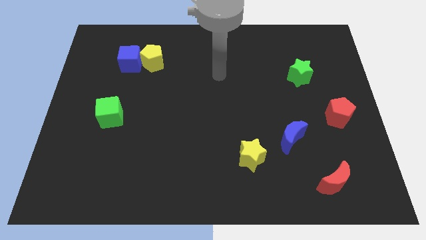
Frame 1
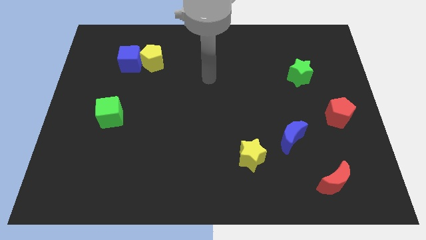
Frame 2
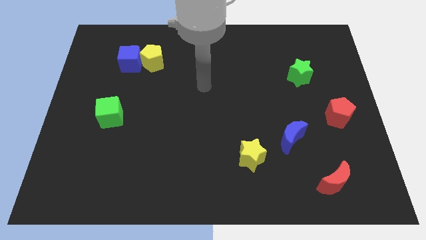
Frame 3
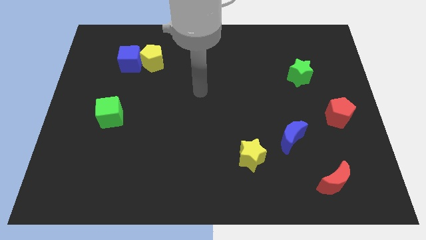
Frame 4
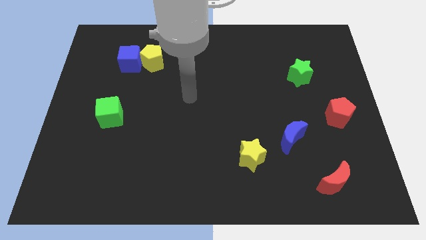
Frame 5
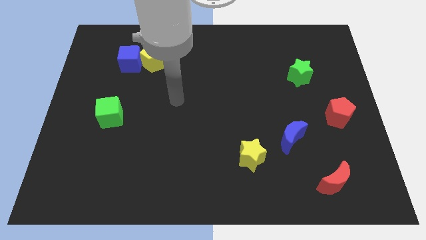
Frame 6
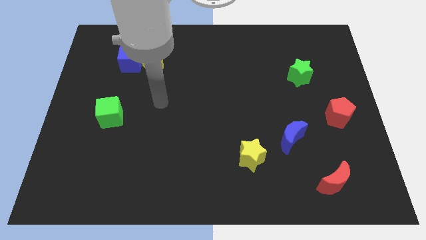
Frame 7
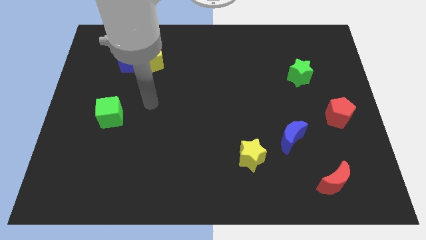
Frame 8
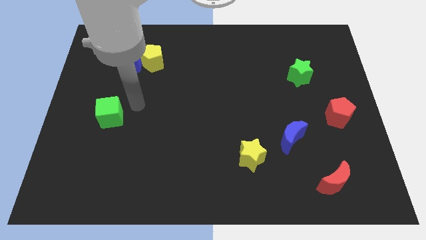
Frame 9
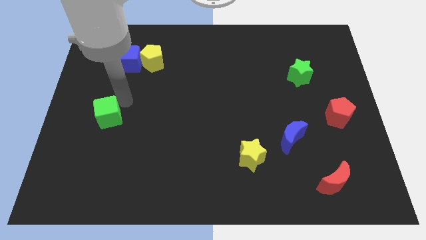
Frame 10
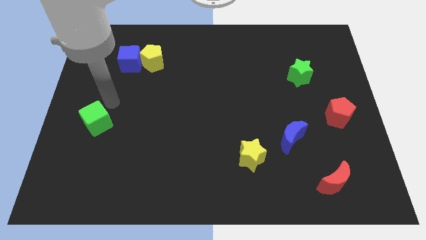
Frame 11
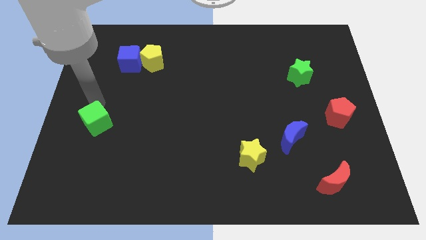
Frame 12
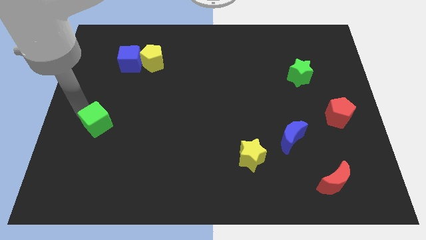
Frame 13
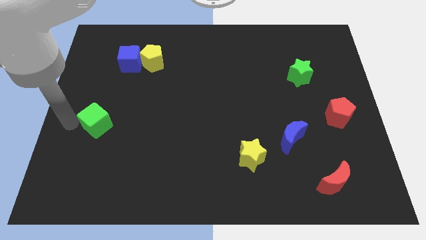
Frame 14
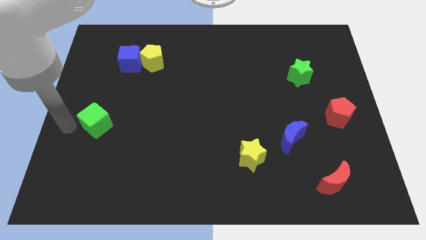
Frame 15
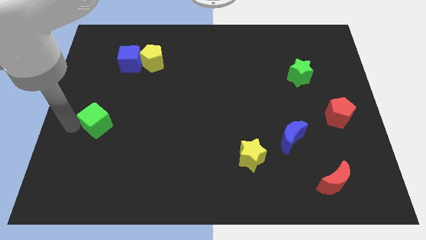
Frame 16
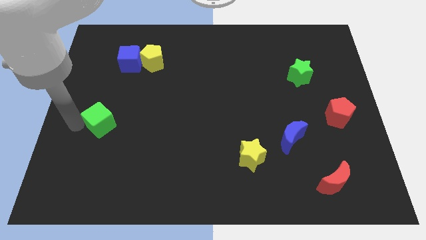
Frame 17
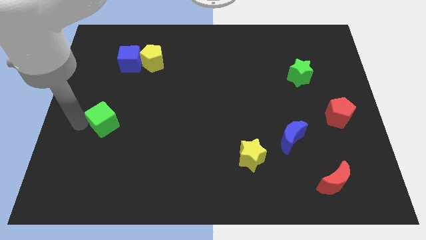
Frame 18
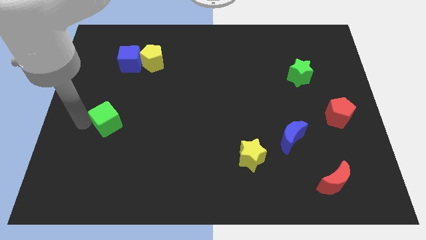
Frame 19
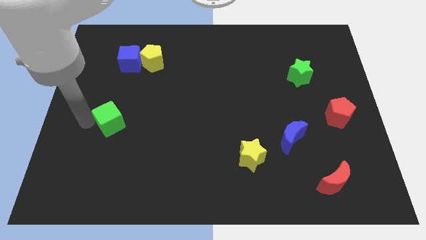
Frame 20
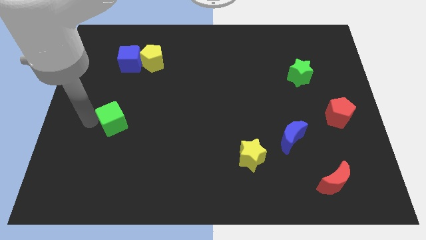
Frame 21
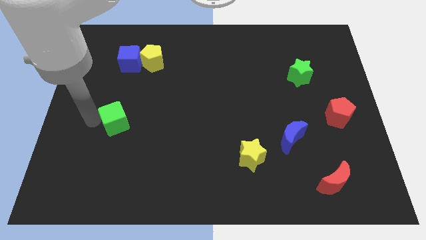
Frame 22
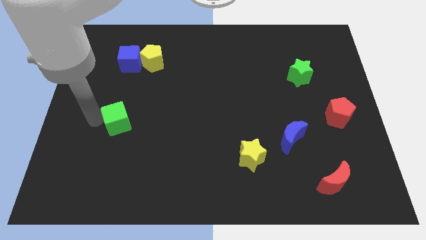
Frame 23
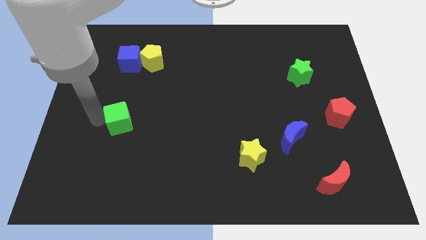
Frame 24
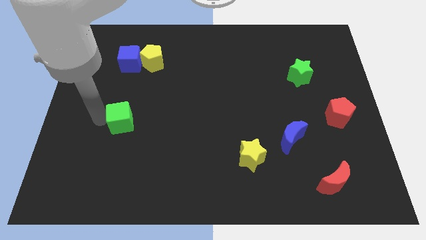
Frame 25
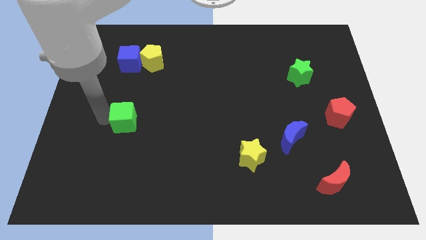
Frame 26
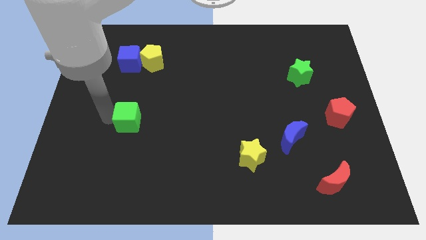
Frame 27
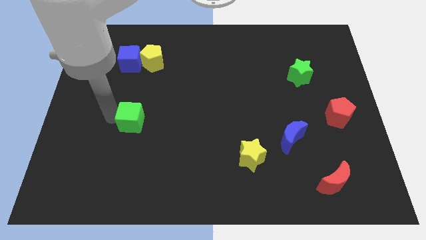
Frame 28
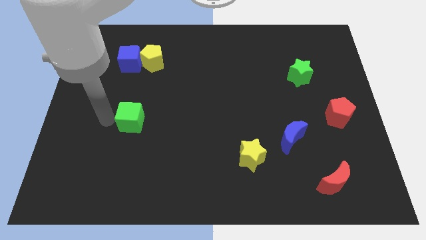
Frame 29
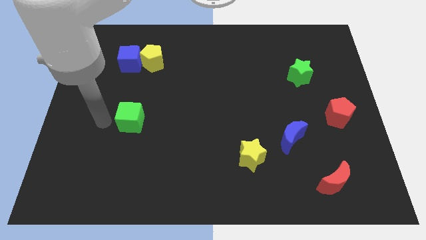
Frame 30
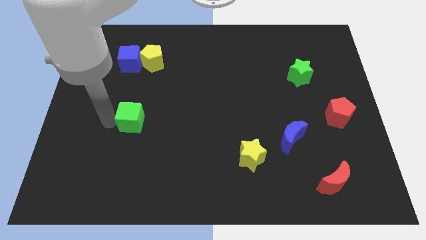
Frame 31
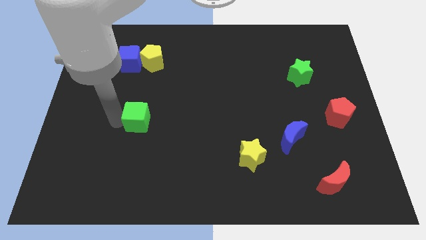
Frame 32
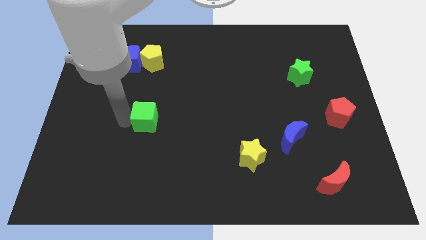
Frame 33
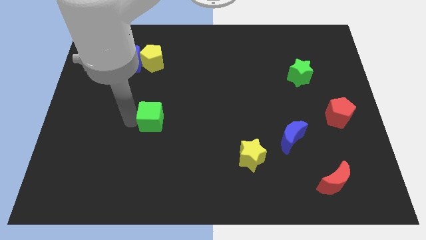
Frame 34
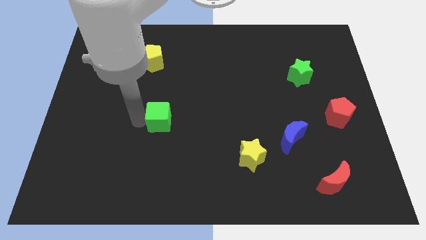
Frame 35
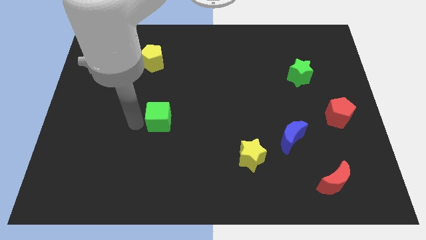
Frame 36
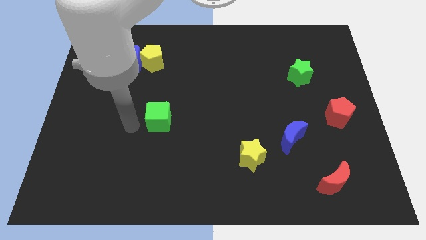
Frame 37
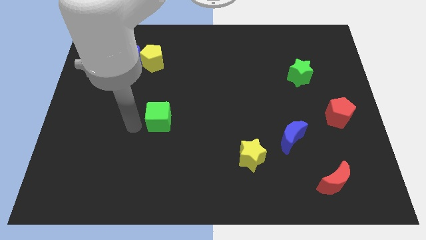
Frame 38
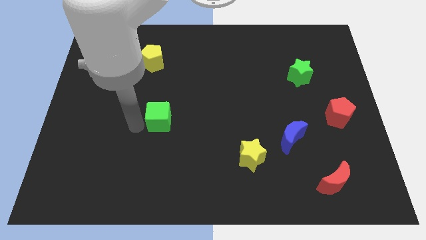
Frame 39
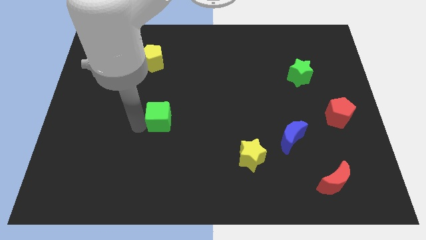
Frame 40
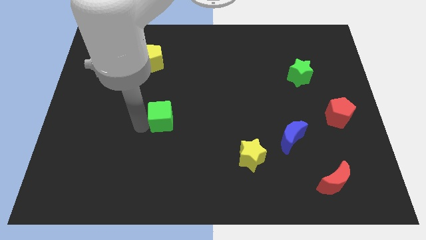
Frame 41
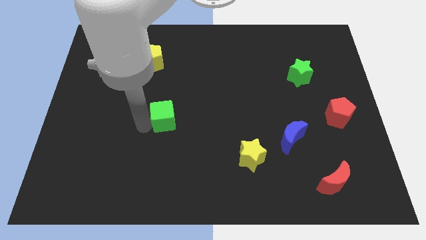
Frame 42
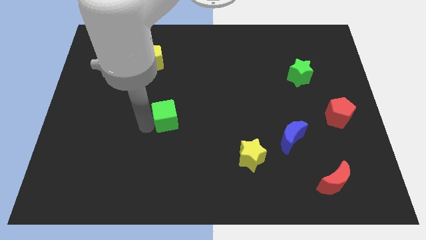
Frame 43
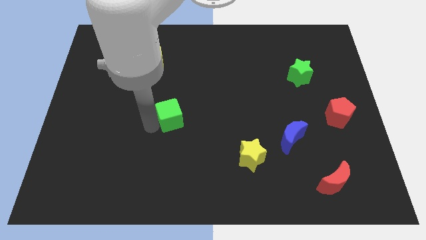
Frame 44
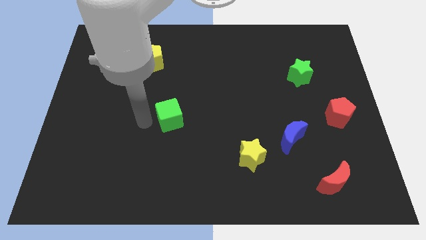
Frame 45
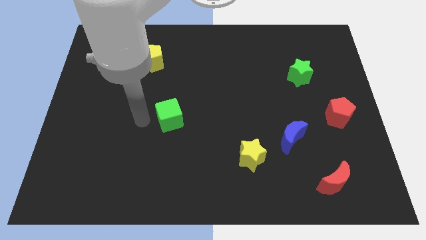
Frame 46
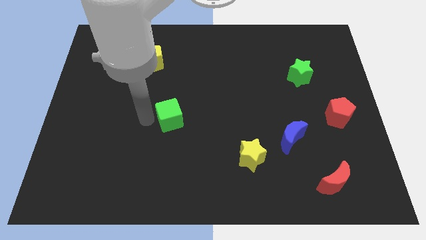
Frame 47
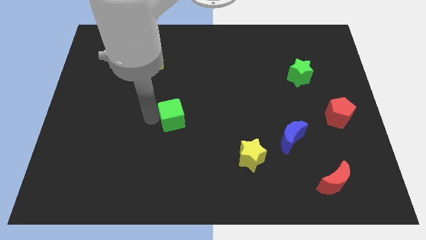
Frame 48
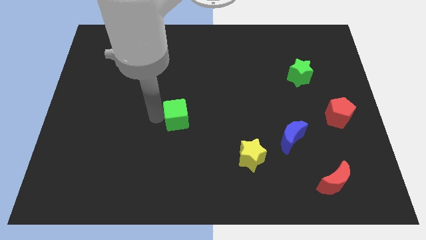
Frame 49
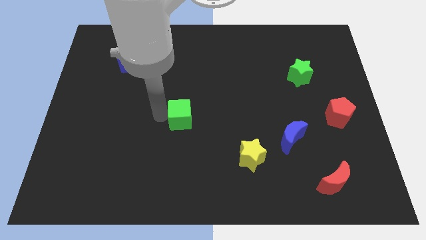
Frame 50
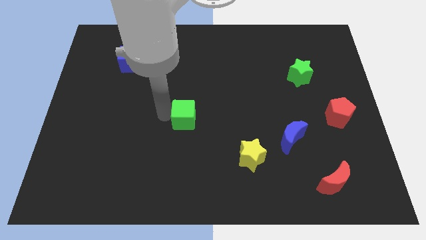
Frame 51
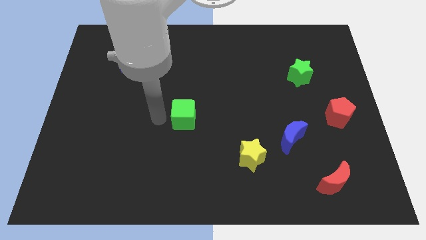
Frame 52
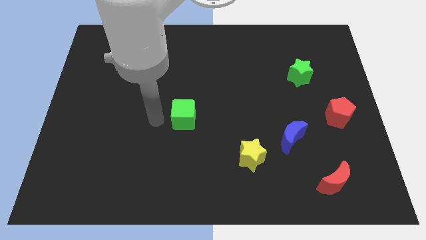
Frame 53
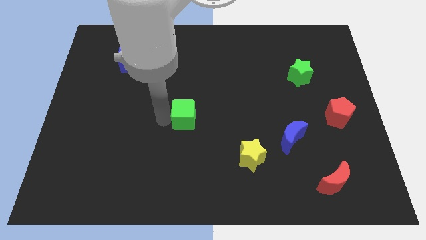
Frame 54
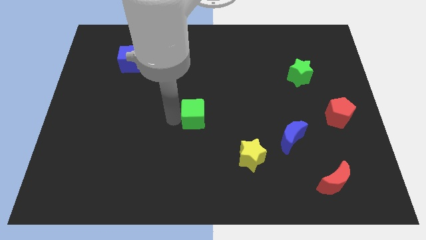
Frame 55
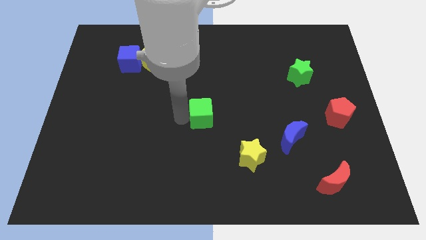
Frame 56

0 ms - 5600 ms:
slide the green cube right

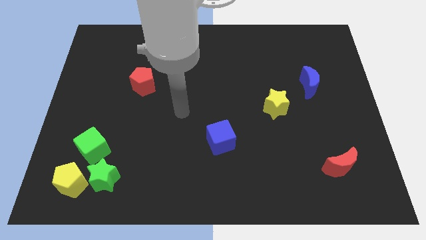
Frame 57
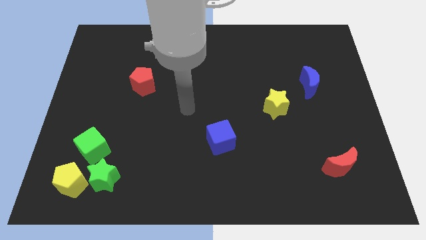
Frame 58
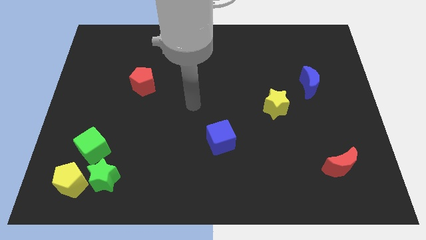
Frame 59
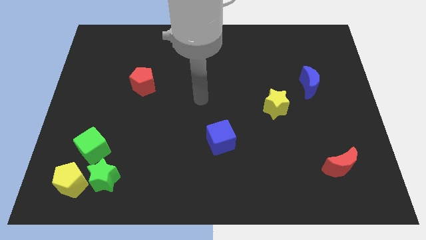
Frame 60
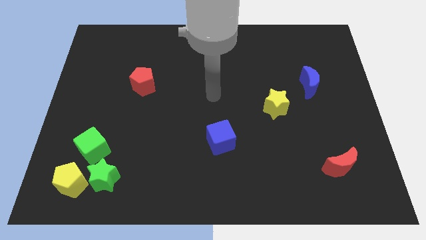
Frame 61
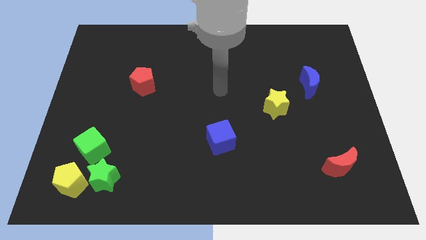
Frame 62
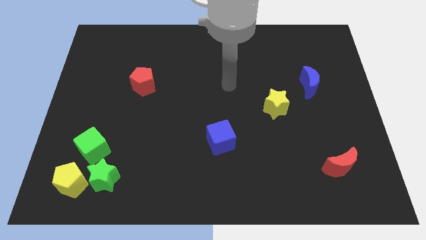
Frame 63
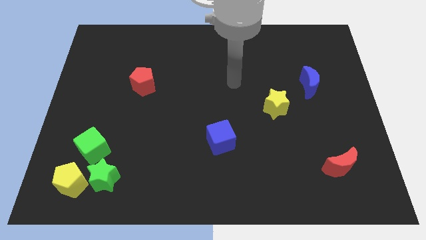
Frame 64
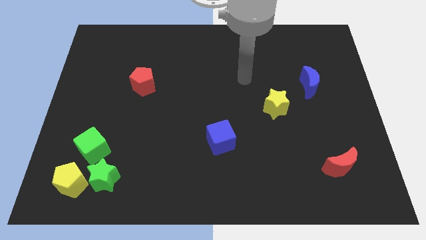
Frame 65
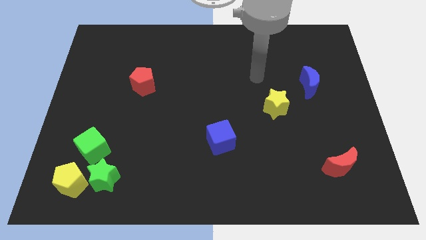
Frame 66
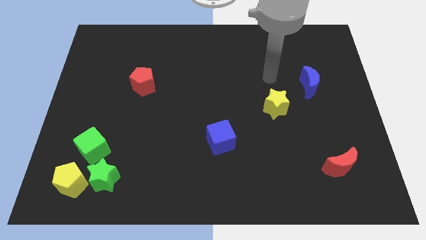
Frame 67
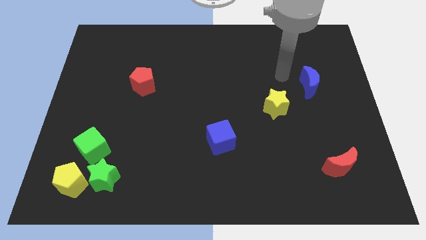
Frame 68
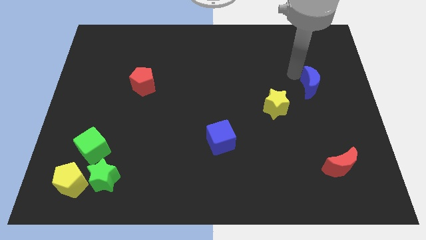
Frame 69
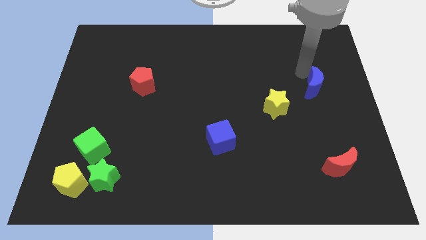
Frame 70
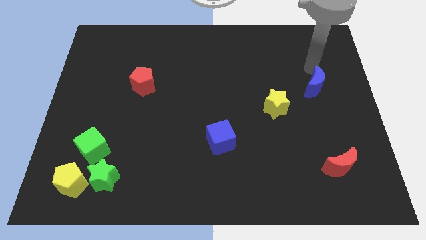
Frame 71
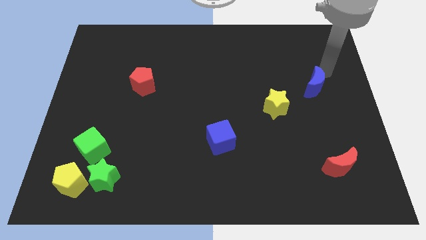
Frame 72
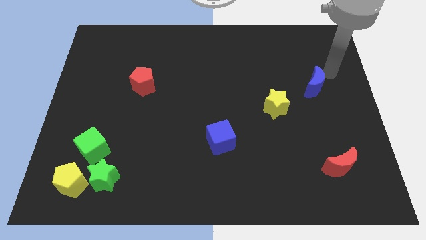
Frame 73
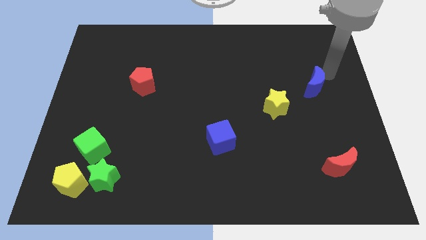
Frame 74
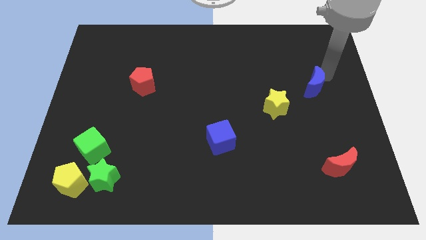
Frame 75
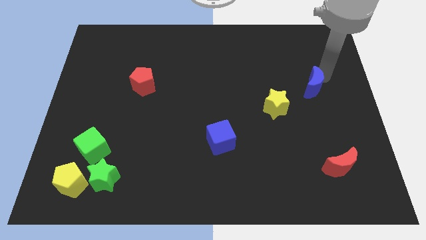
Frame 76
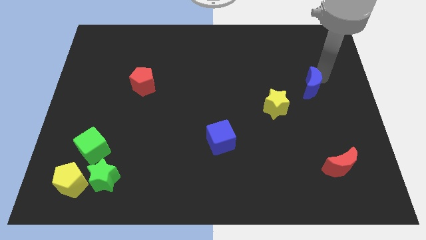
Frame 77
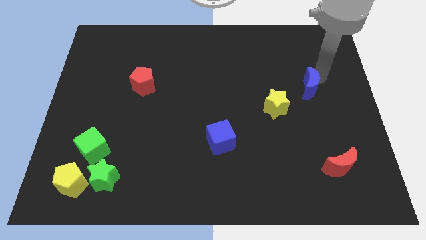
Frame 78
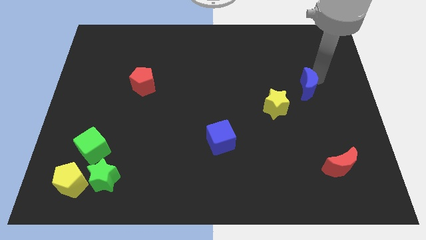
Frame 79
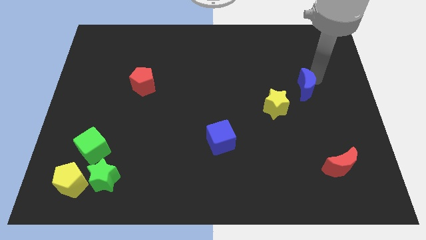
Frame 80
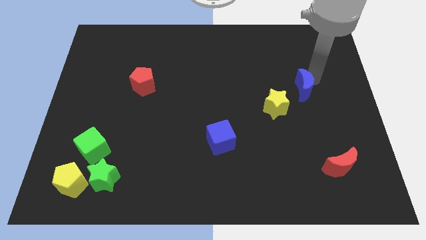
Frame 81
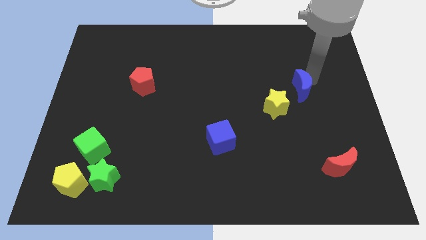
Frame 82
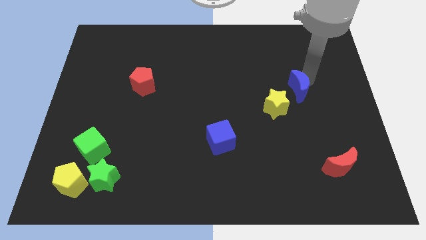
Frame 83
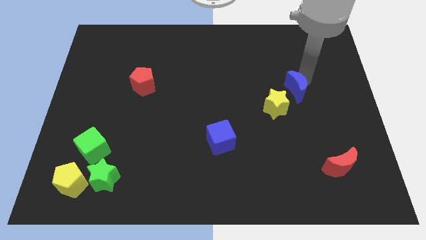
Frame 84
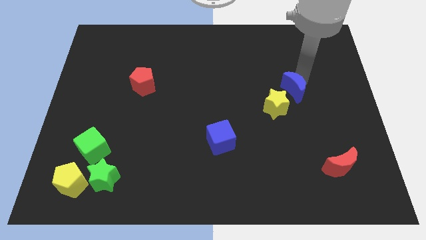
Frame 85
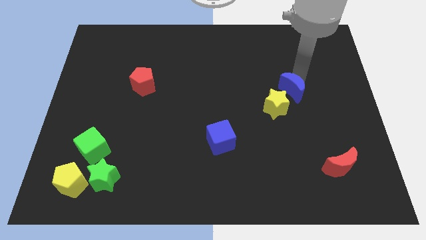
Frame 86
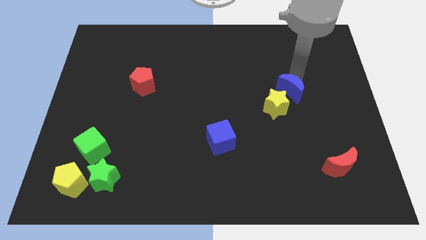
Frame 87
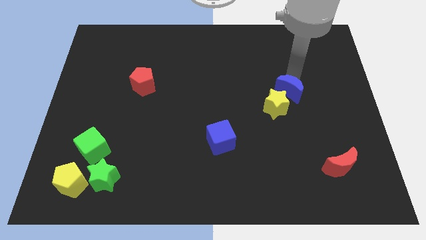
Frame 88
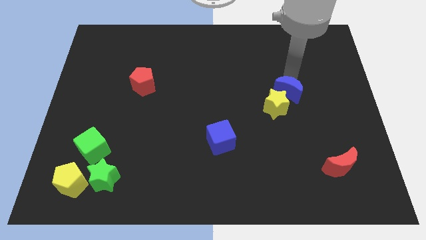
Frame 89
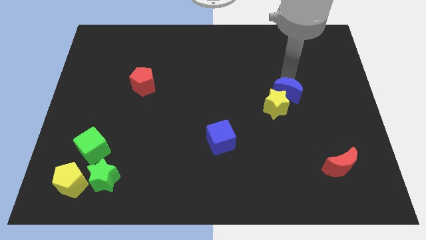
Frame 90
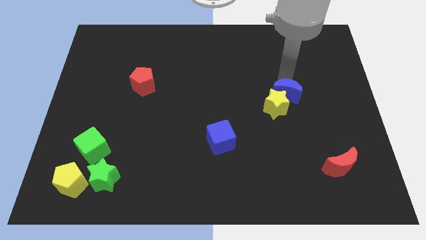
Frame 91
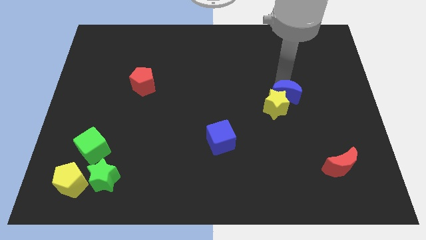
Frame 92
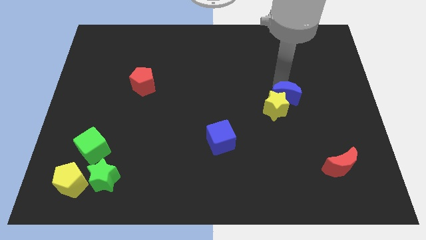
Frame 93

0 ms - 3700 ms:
slide the blue moon a little bit downwards and to the left diagonally
